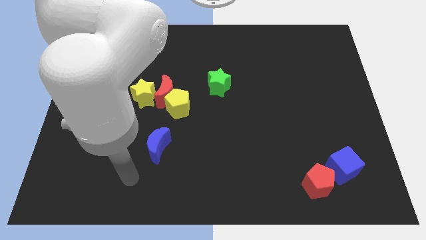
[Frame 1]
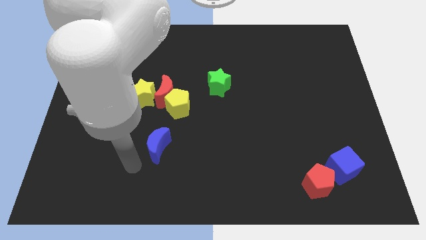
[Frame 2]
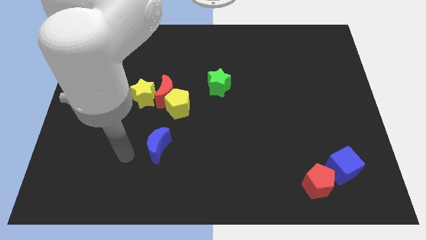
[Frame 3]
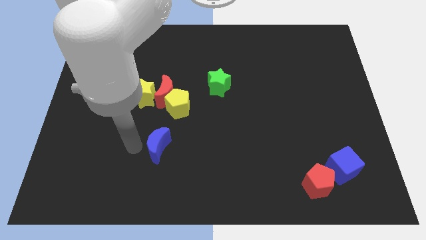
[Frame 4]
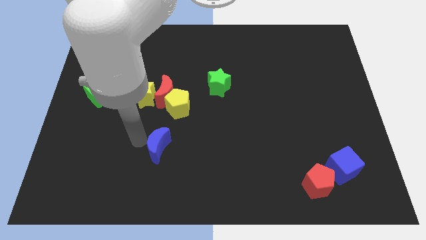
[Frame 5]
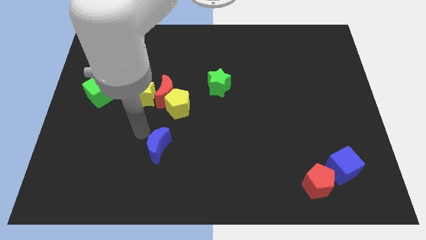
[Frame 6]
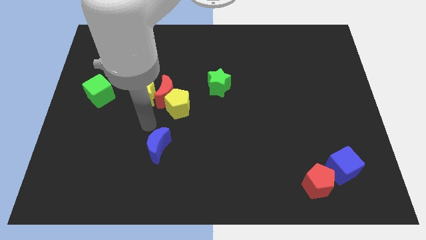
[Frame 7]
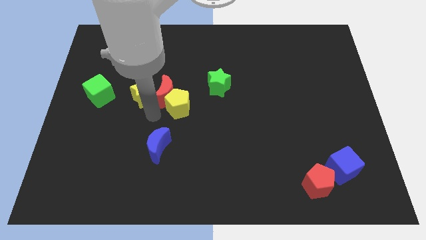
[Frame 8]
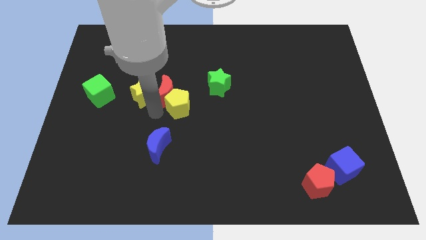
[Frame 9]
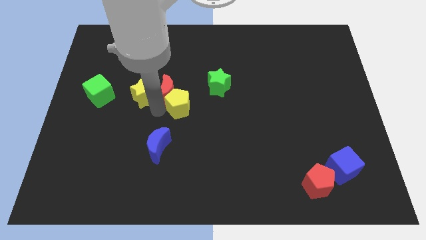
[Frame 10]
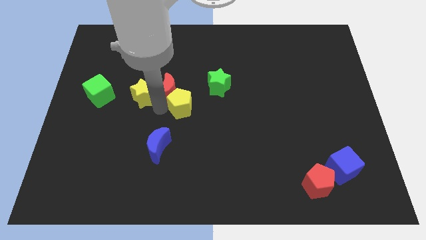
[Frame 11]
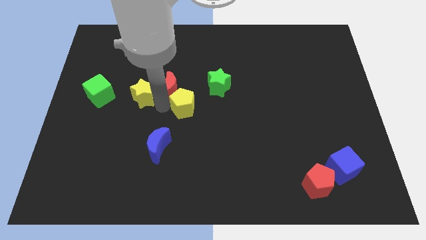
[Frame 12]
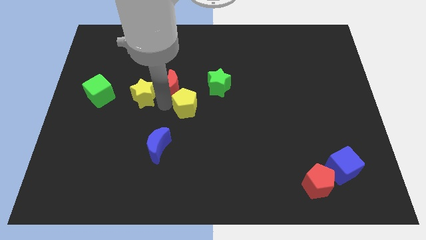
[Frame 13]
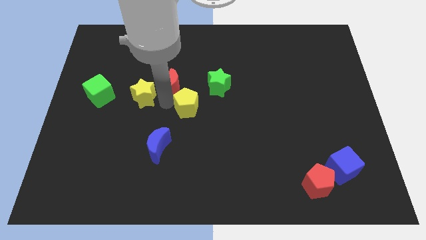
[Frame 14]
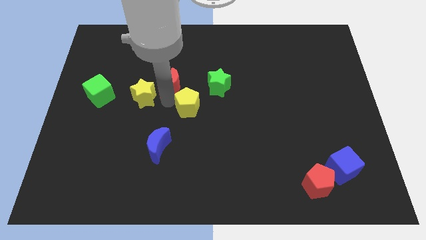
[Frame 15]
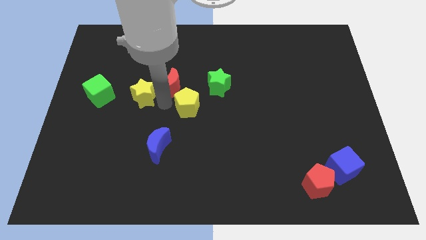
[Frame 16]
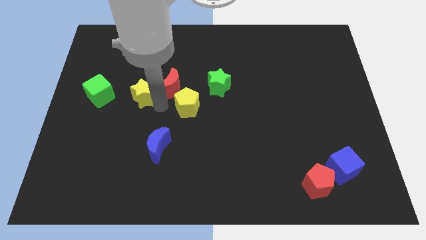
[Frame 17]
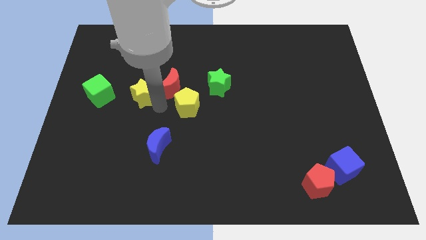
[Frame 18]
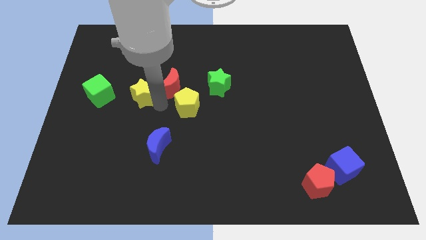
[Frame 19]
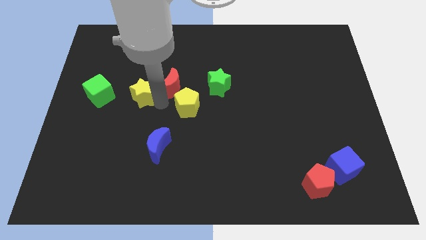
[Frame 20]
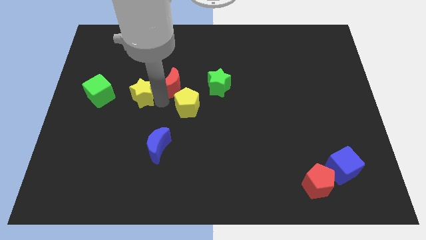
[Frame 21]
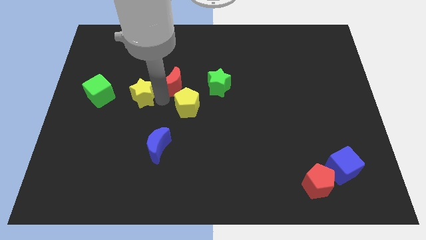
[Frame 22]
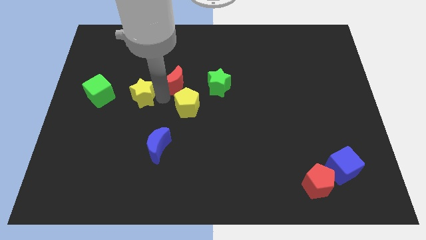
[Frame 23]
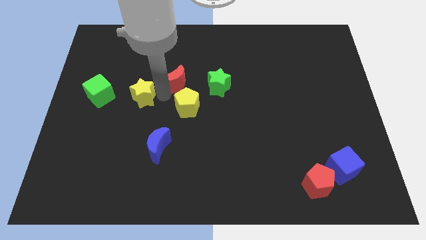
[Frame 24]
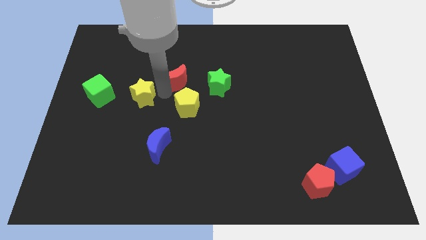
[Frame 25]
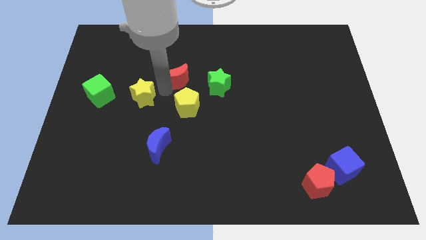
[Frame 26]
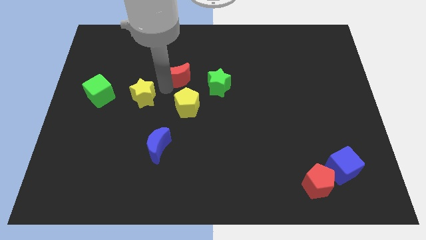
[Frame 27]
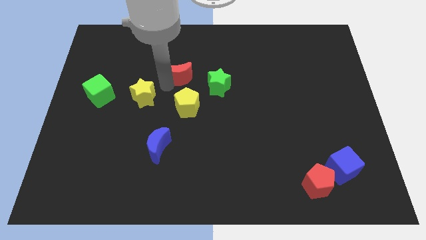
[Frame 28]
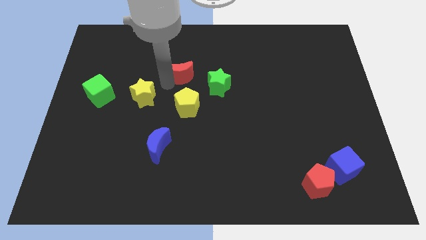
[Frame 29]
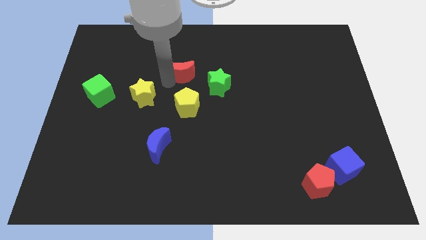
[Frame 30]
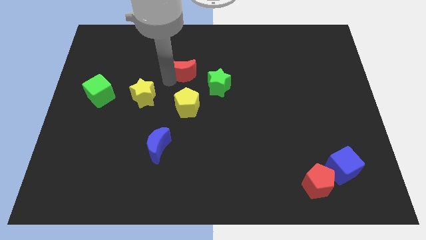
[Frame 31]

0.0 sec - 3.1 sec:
separate the red moon from the yellow pentagon and yellow star

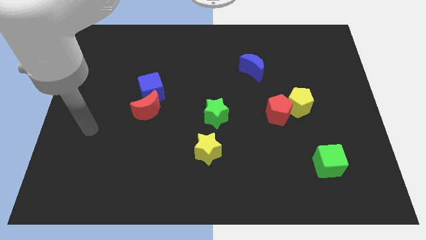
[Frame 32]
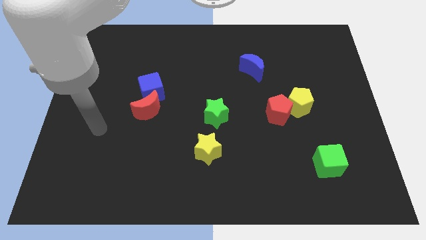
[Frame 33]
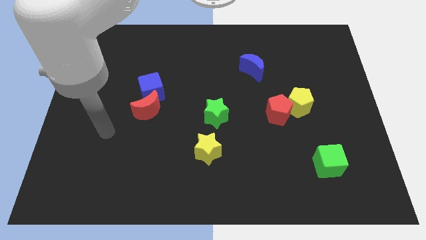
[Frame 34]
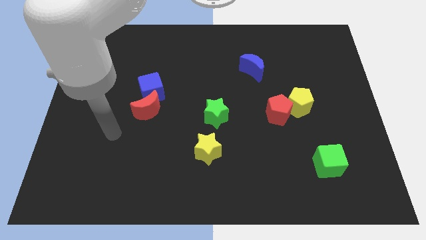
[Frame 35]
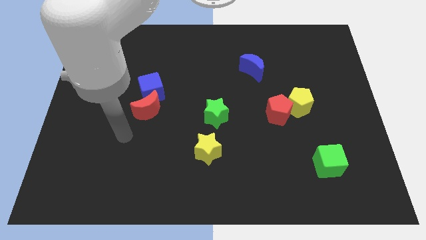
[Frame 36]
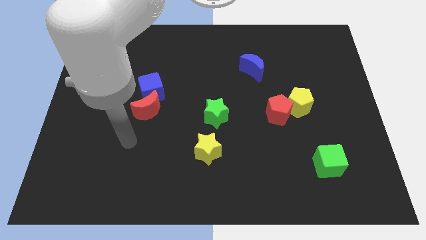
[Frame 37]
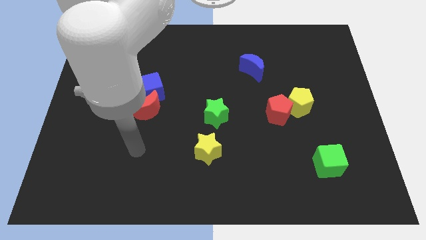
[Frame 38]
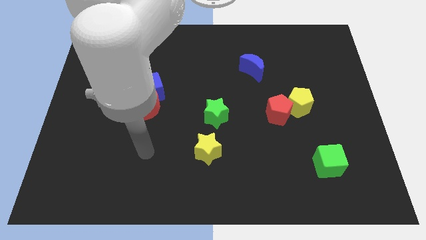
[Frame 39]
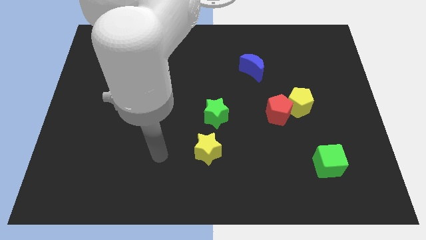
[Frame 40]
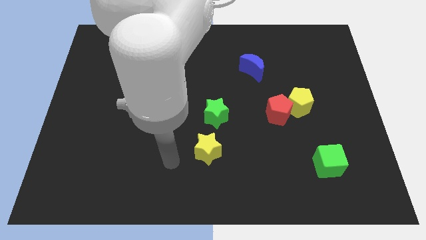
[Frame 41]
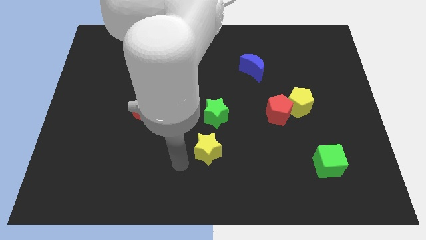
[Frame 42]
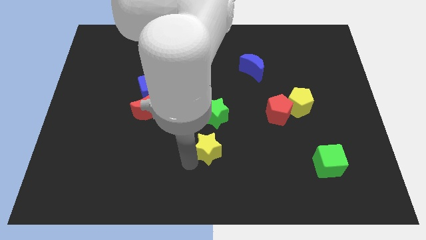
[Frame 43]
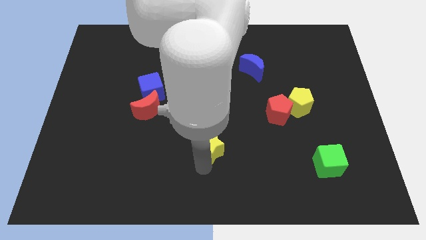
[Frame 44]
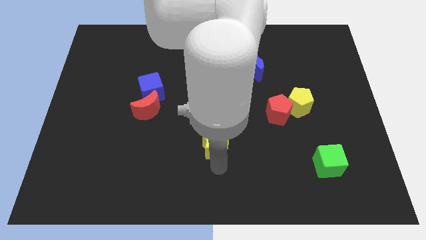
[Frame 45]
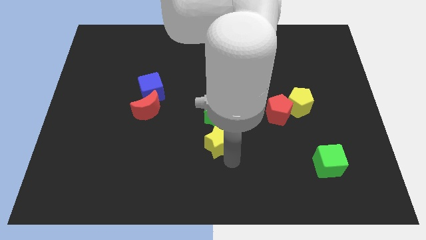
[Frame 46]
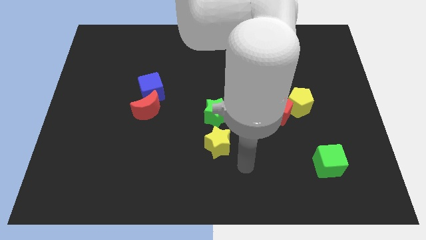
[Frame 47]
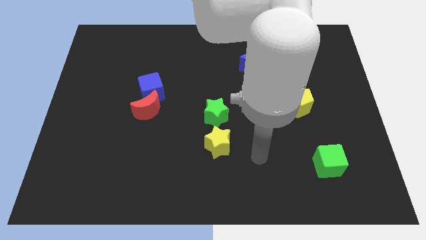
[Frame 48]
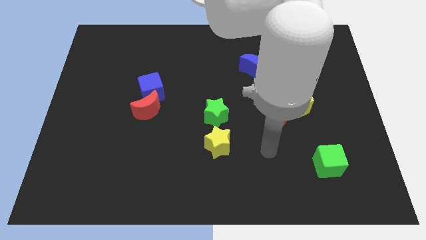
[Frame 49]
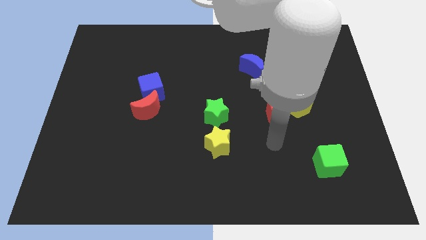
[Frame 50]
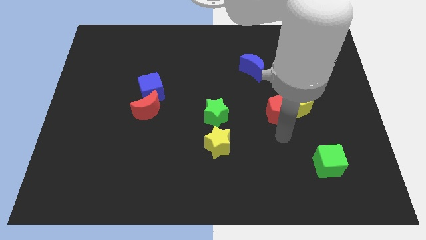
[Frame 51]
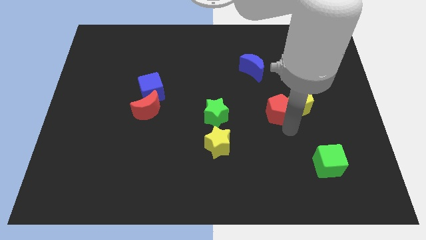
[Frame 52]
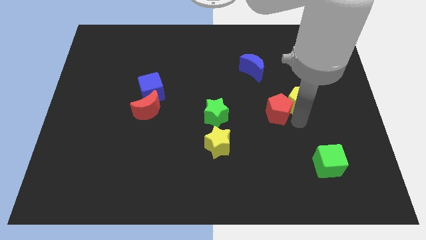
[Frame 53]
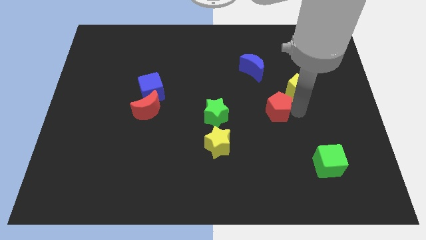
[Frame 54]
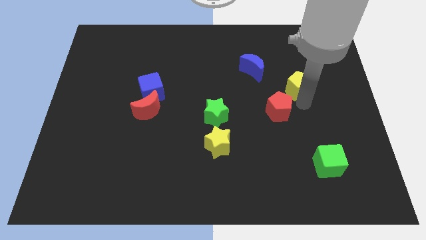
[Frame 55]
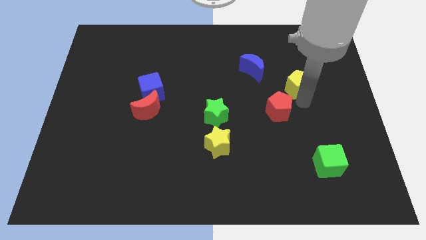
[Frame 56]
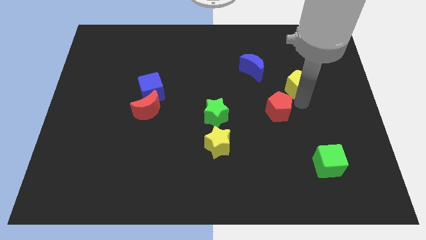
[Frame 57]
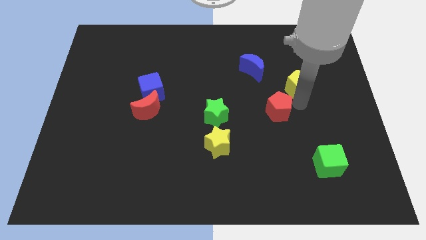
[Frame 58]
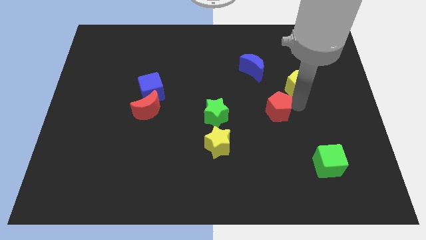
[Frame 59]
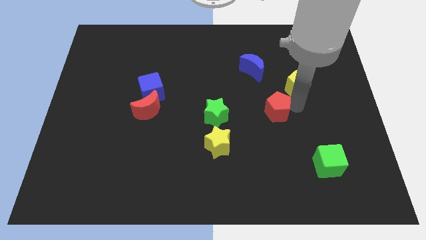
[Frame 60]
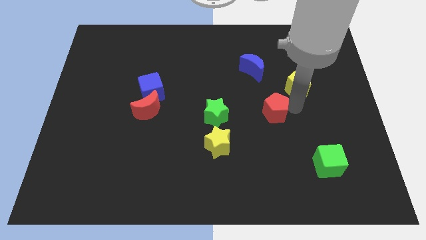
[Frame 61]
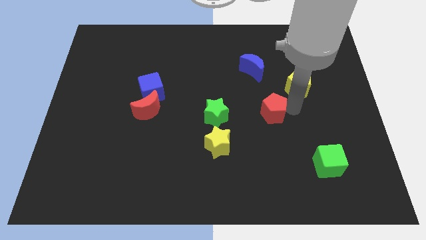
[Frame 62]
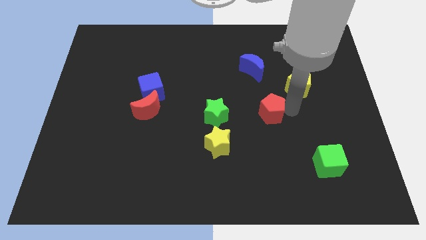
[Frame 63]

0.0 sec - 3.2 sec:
separate the red pentagon from the yellow pentagon

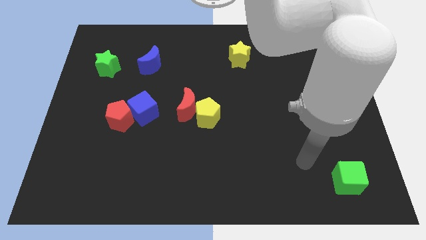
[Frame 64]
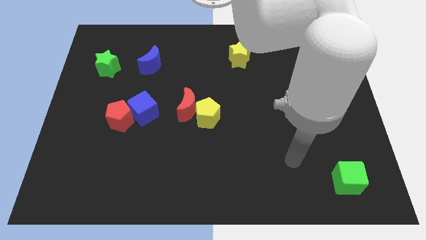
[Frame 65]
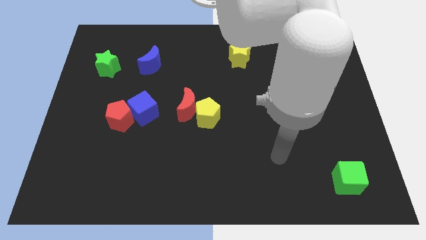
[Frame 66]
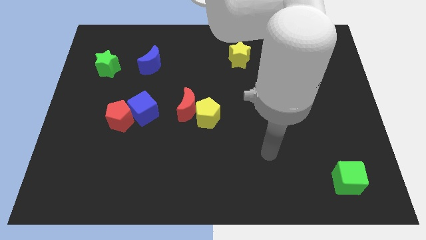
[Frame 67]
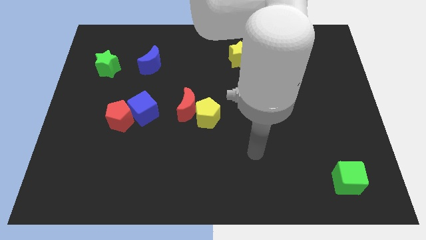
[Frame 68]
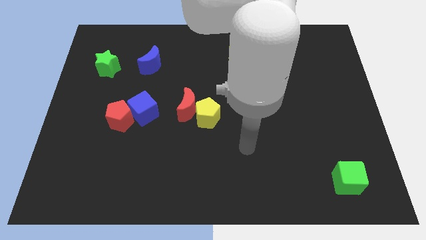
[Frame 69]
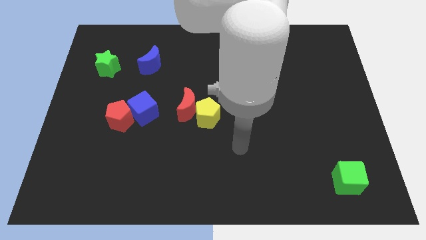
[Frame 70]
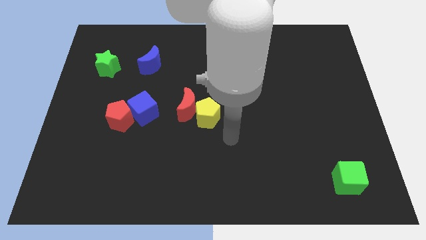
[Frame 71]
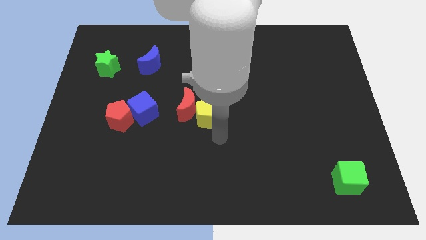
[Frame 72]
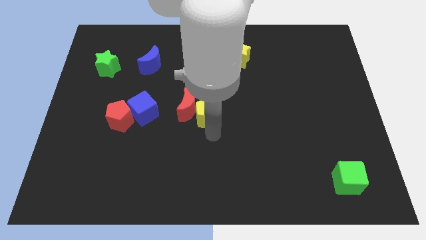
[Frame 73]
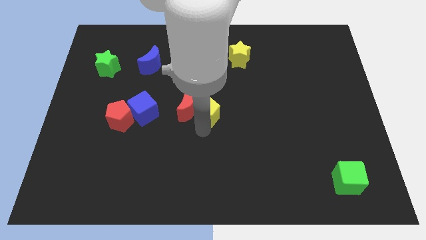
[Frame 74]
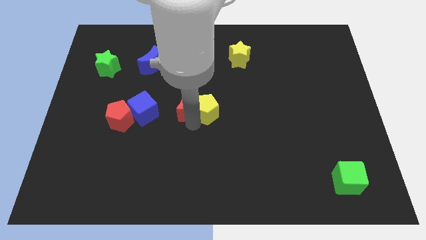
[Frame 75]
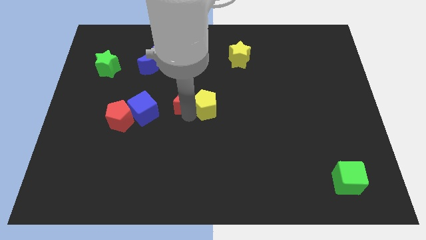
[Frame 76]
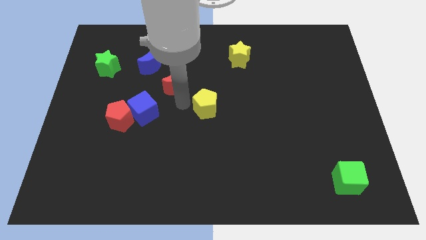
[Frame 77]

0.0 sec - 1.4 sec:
separate the yellow pentagon from the red moon

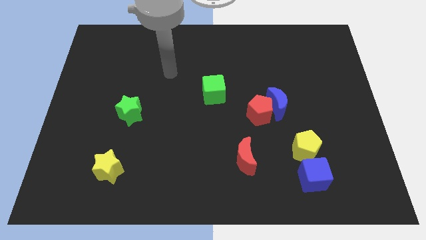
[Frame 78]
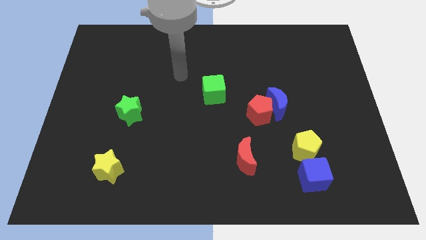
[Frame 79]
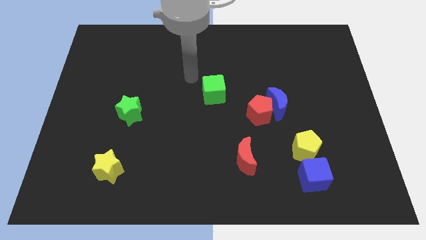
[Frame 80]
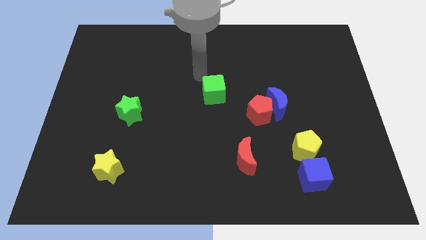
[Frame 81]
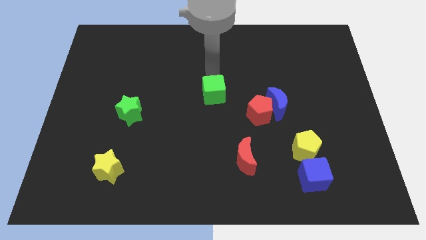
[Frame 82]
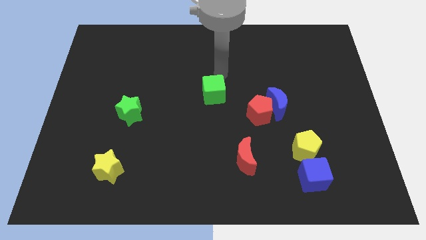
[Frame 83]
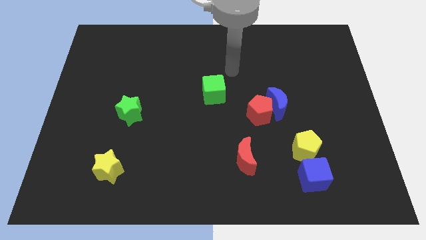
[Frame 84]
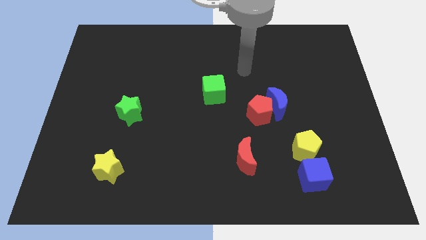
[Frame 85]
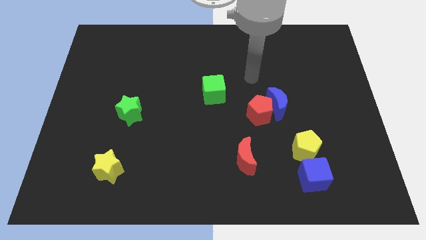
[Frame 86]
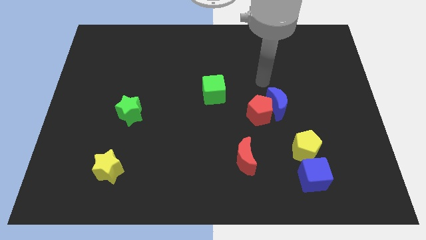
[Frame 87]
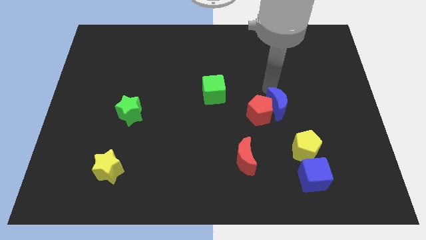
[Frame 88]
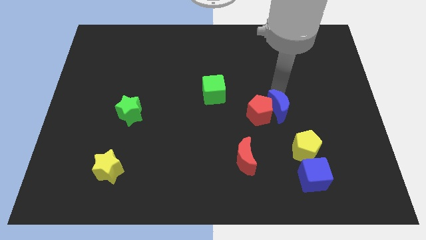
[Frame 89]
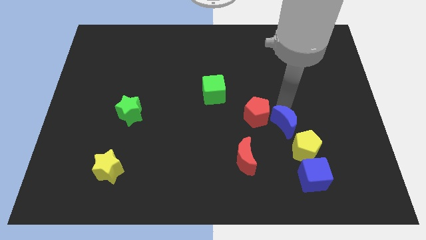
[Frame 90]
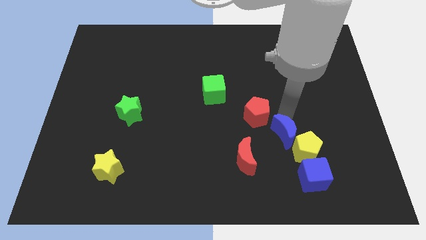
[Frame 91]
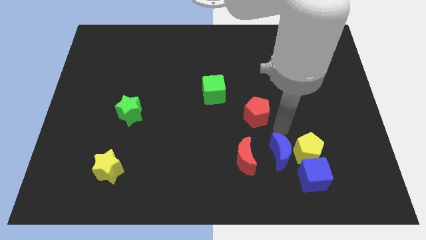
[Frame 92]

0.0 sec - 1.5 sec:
separate the red pentagon from the blue moon

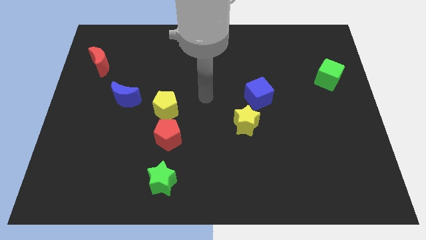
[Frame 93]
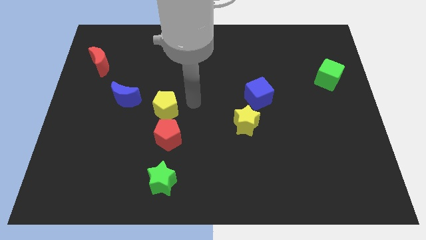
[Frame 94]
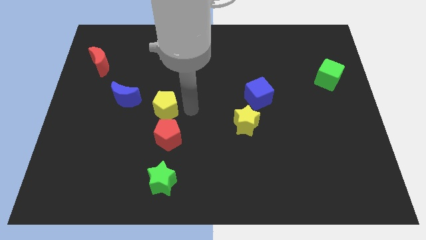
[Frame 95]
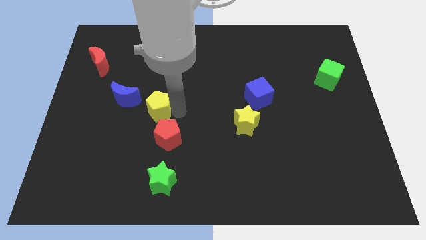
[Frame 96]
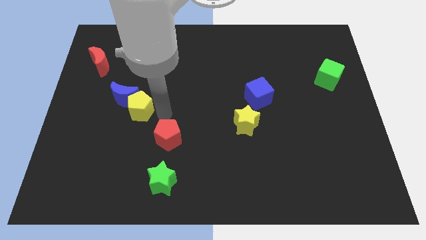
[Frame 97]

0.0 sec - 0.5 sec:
move the red pentagon away from the yellow pentagon
